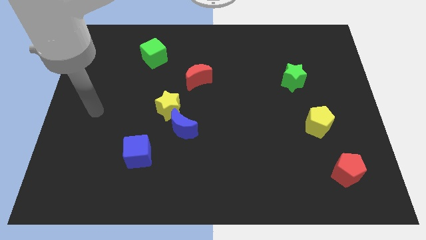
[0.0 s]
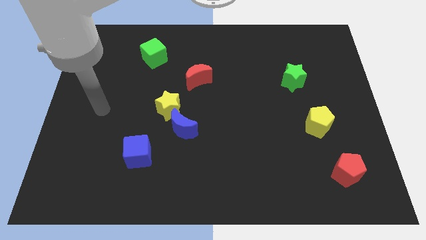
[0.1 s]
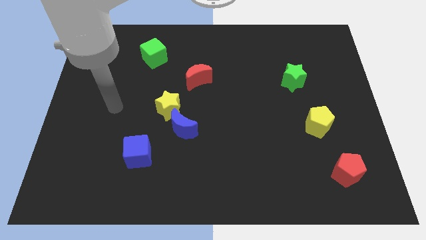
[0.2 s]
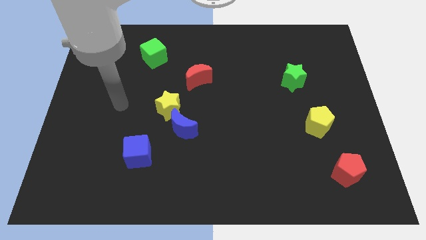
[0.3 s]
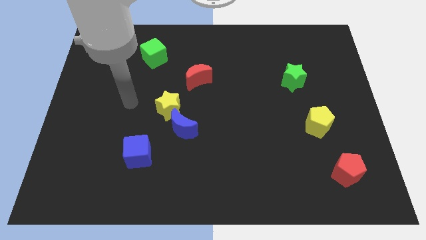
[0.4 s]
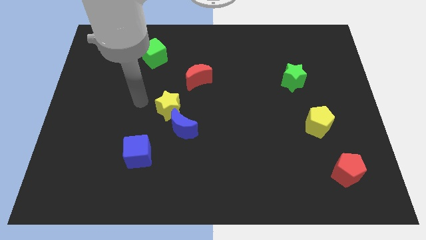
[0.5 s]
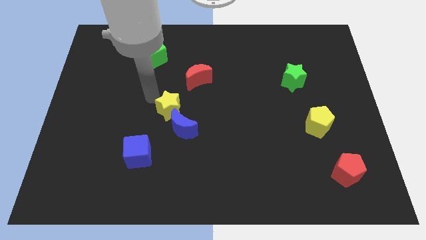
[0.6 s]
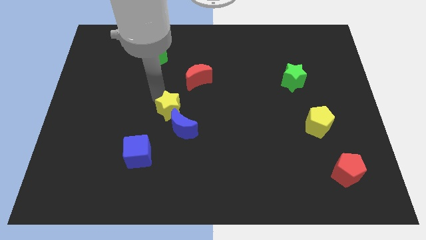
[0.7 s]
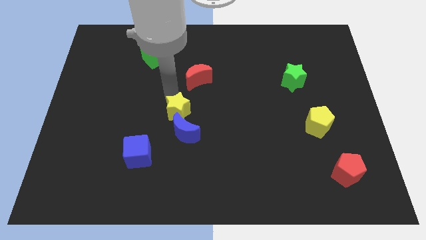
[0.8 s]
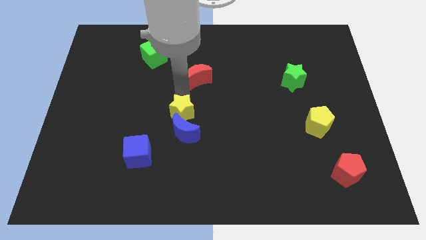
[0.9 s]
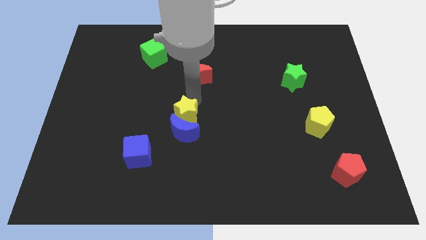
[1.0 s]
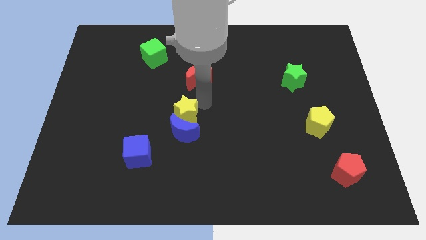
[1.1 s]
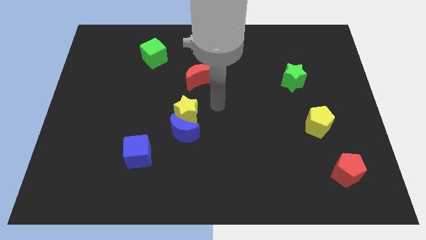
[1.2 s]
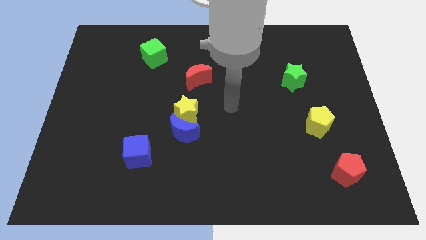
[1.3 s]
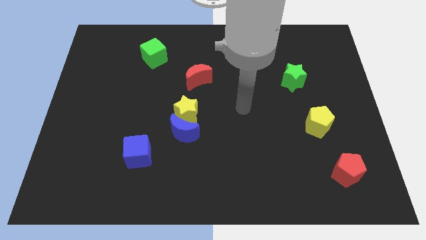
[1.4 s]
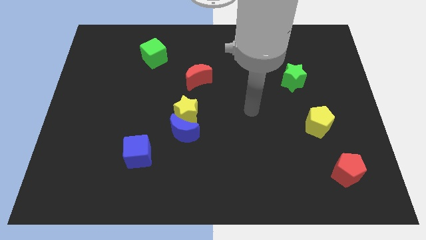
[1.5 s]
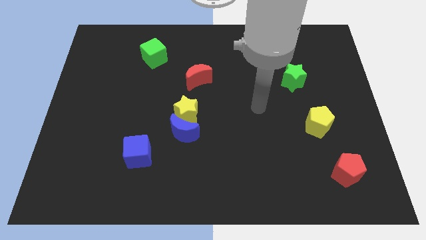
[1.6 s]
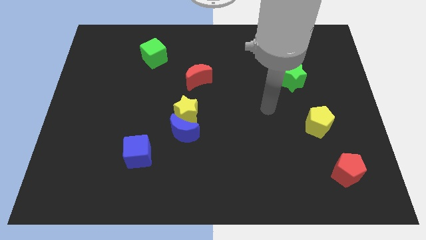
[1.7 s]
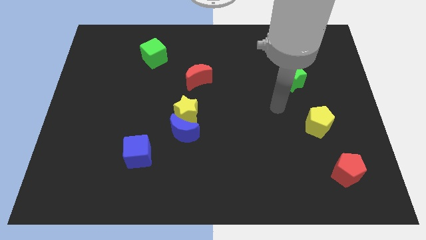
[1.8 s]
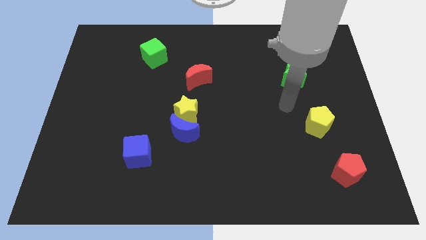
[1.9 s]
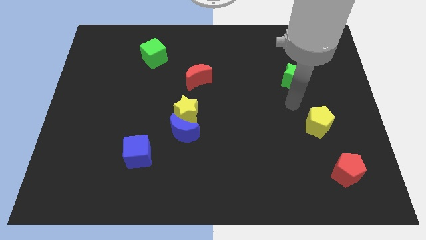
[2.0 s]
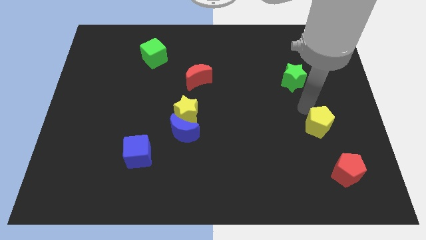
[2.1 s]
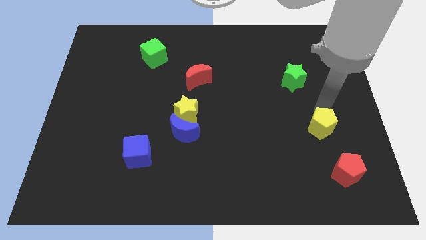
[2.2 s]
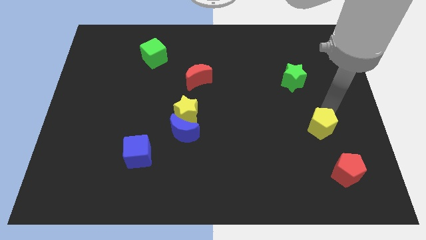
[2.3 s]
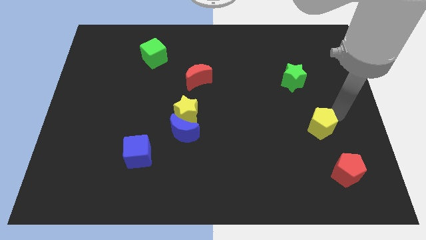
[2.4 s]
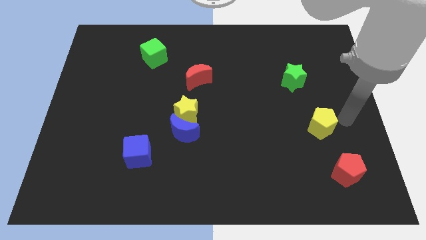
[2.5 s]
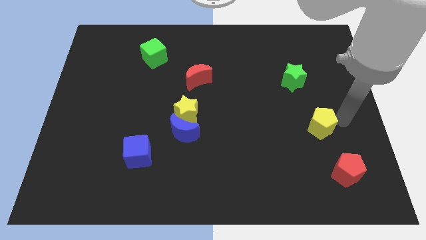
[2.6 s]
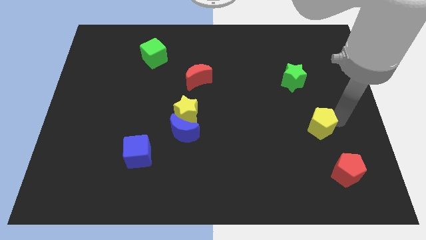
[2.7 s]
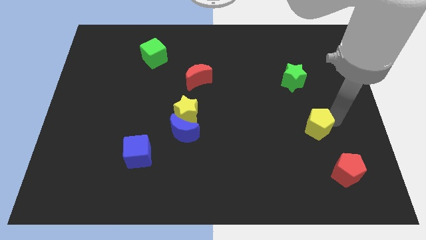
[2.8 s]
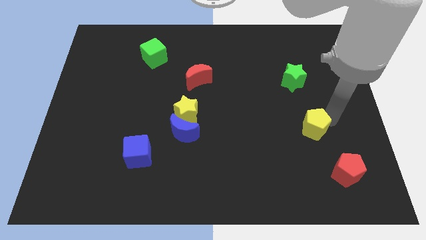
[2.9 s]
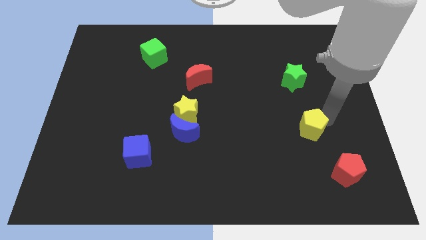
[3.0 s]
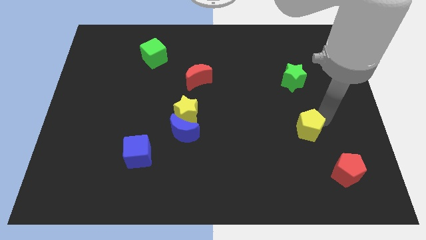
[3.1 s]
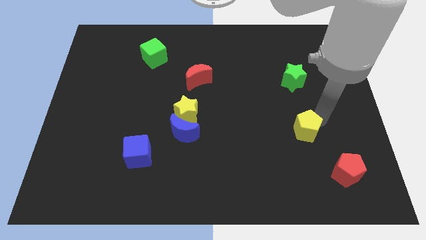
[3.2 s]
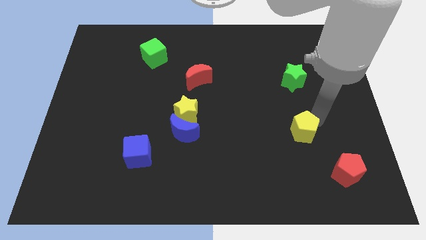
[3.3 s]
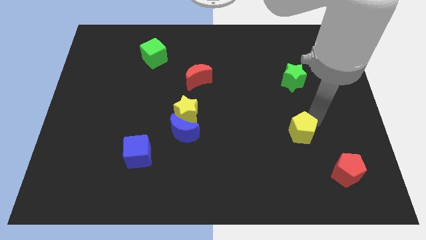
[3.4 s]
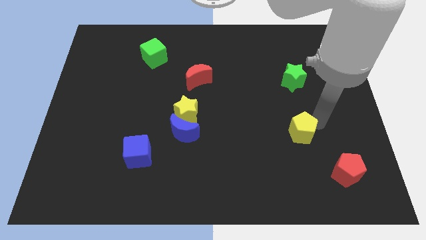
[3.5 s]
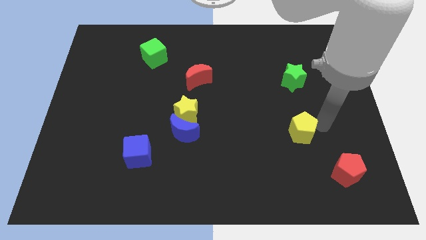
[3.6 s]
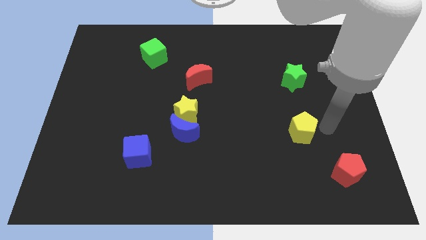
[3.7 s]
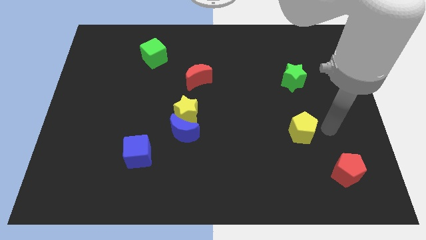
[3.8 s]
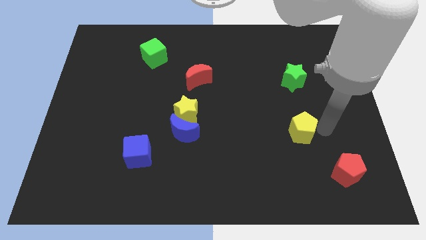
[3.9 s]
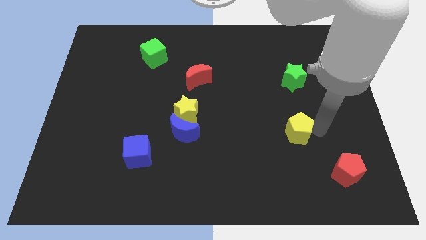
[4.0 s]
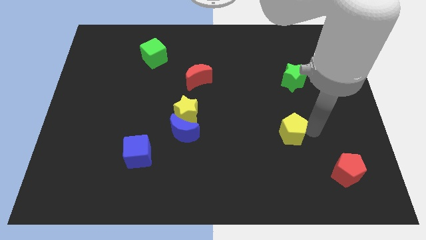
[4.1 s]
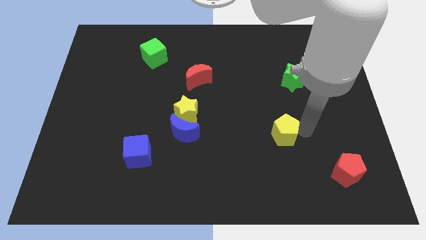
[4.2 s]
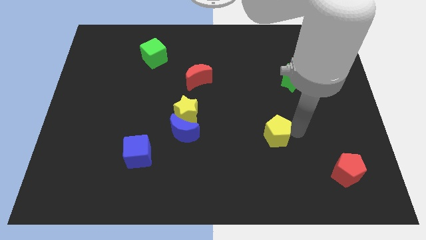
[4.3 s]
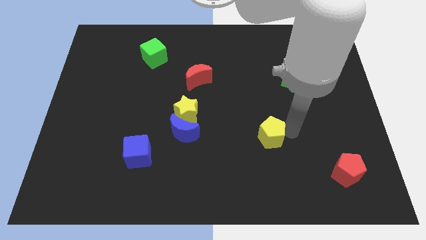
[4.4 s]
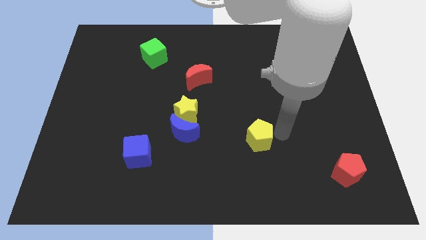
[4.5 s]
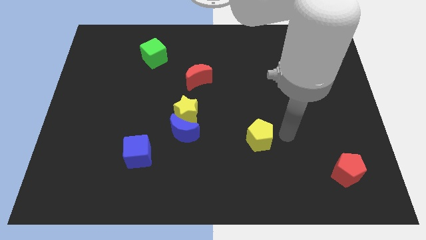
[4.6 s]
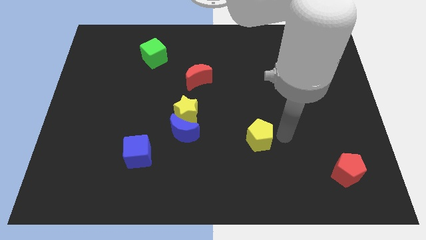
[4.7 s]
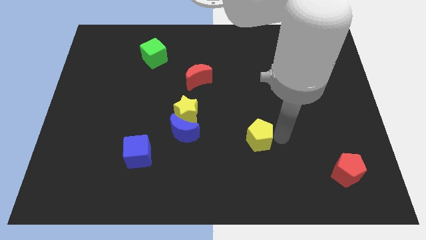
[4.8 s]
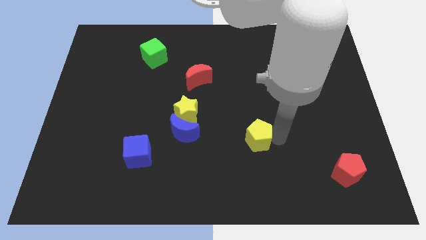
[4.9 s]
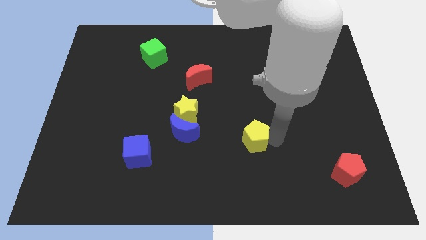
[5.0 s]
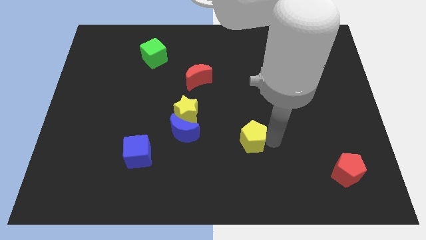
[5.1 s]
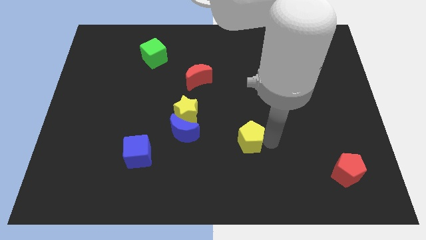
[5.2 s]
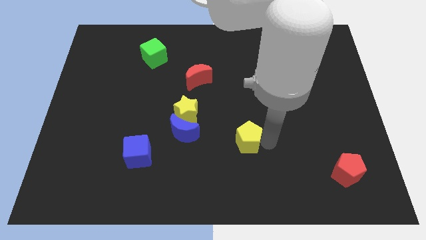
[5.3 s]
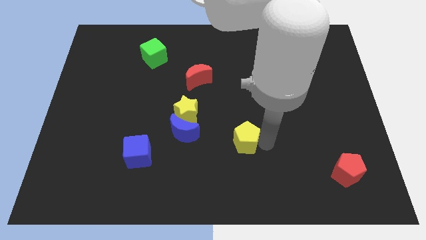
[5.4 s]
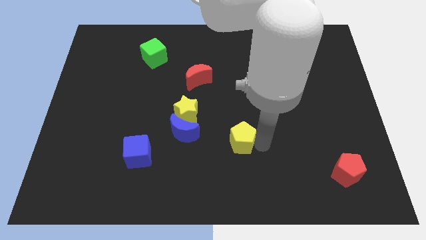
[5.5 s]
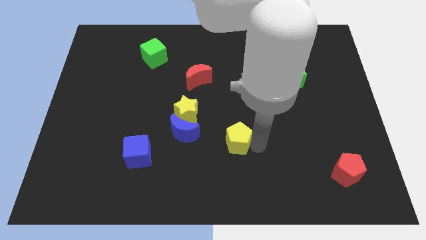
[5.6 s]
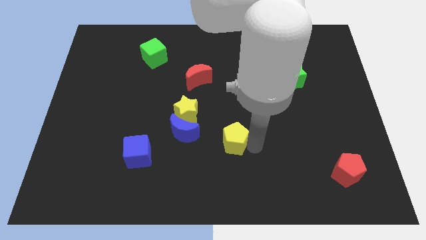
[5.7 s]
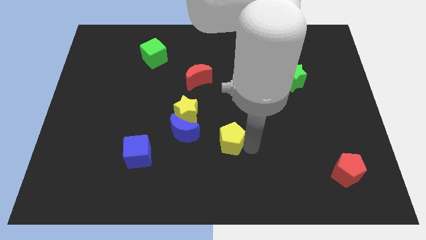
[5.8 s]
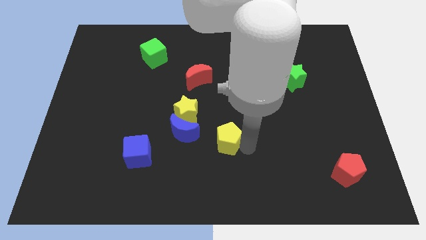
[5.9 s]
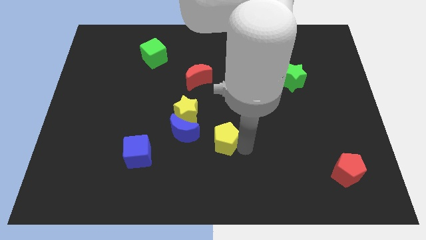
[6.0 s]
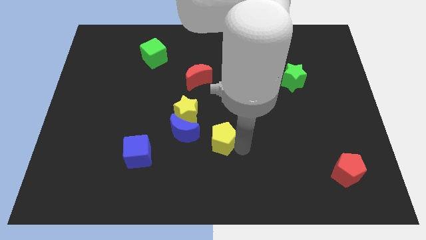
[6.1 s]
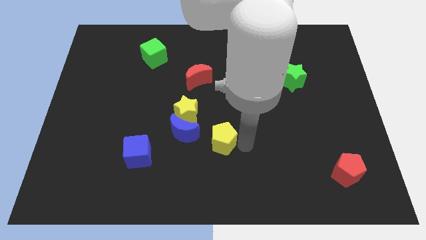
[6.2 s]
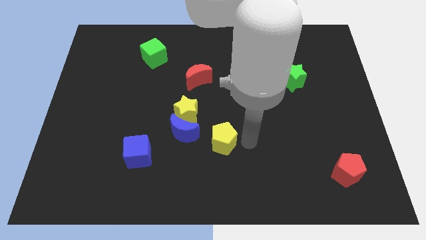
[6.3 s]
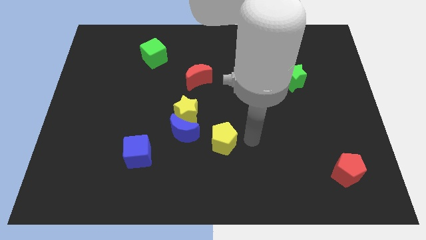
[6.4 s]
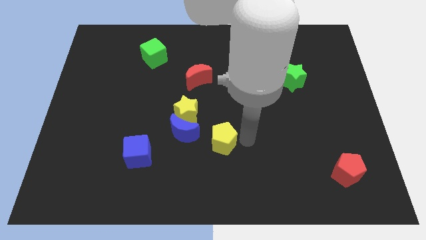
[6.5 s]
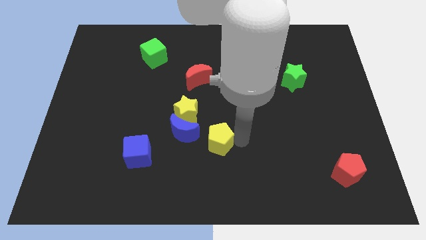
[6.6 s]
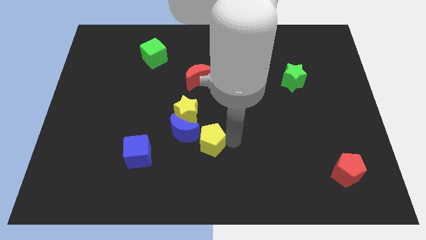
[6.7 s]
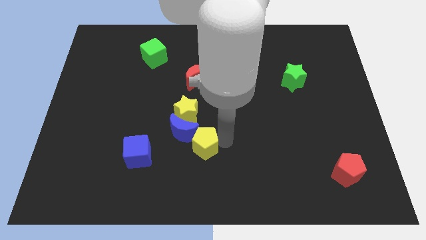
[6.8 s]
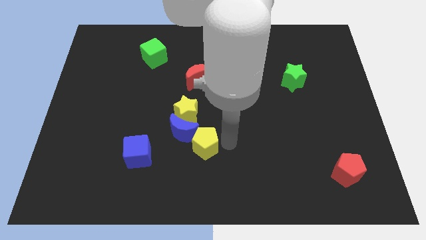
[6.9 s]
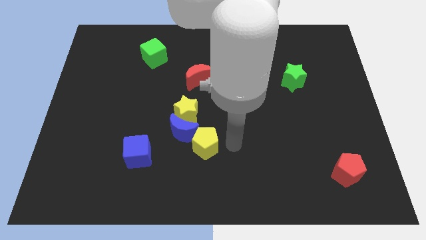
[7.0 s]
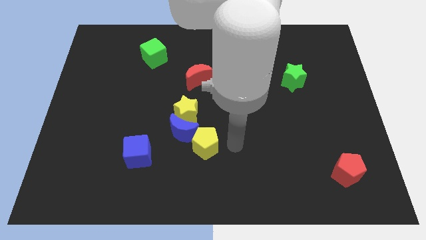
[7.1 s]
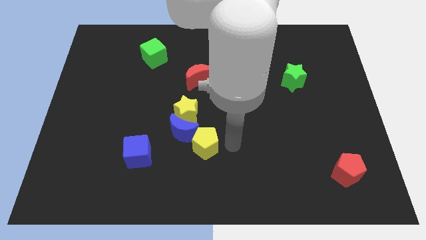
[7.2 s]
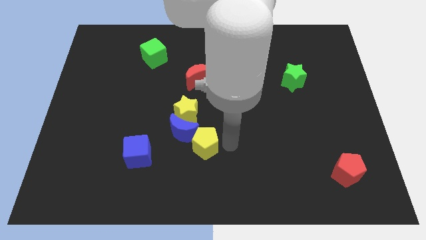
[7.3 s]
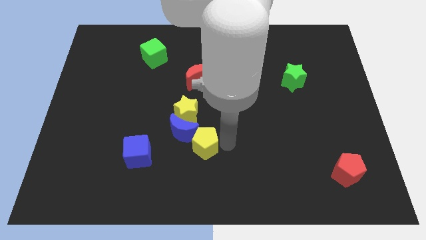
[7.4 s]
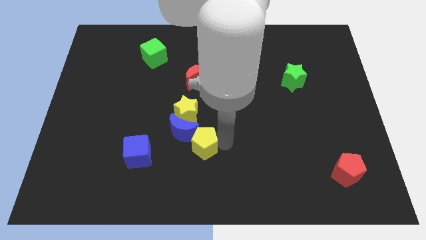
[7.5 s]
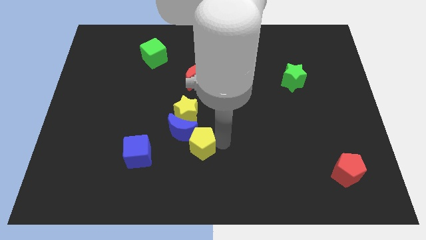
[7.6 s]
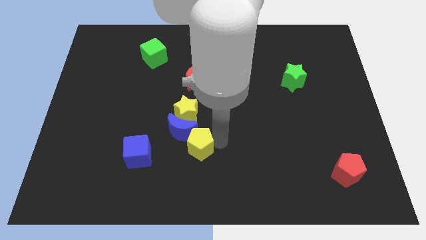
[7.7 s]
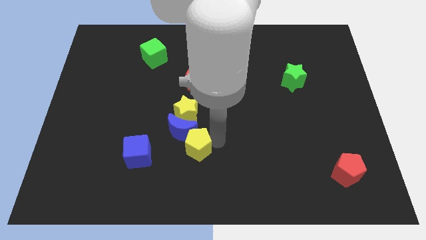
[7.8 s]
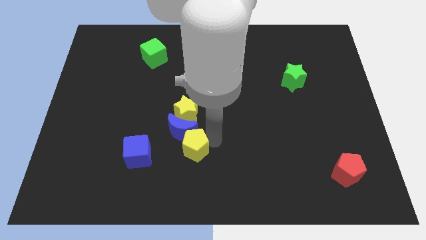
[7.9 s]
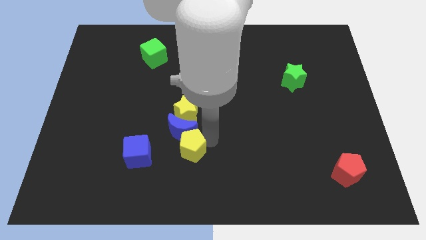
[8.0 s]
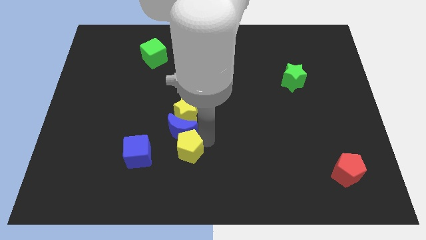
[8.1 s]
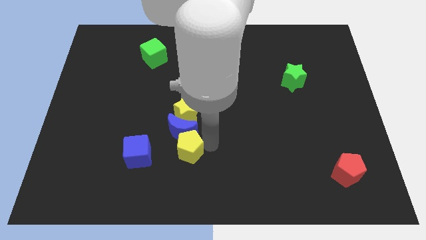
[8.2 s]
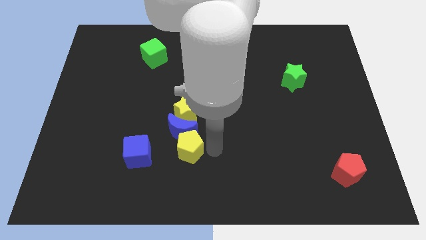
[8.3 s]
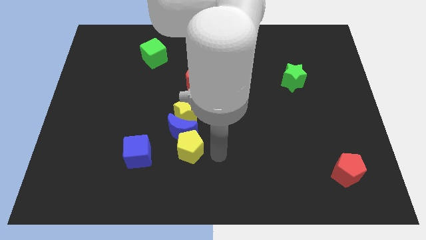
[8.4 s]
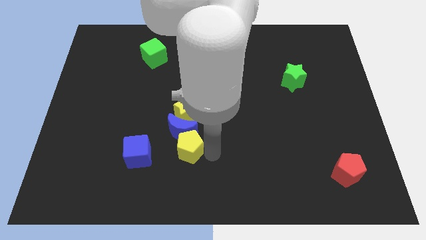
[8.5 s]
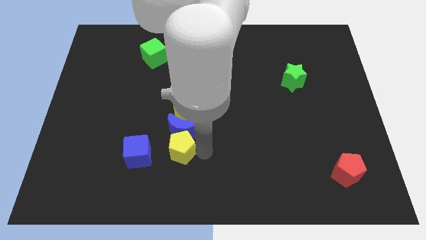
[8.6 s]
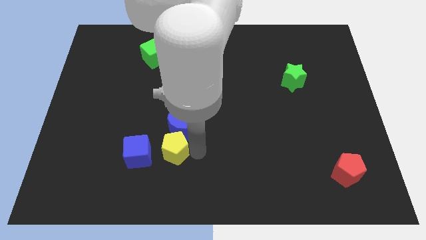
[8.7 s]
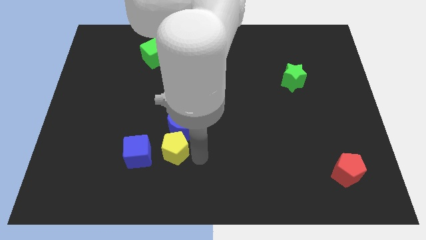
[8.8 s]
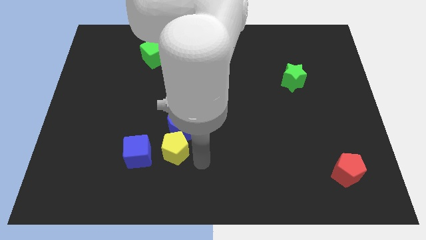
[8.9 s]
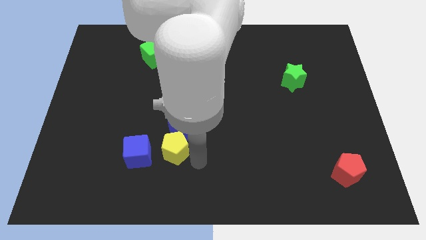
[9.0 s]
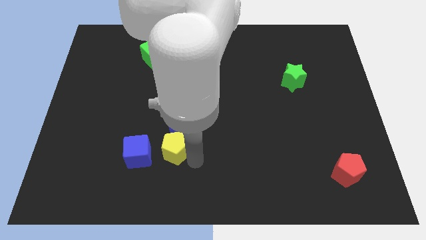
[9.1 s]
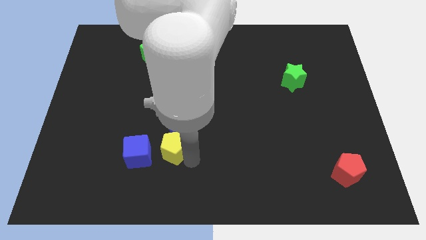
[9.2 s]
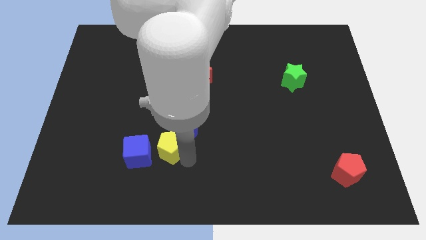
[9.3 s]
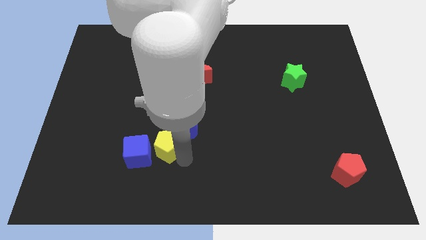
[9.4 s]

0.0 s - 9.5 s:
move the yellow pentagon to the left of the blue moon
